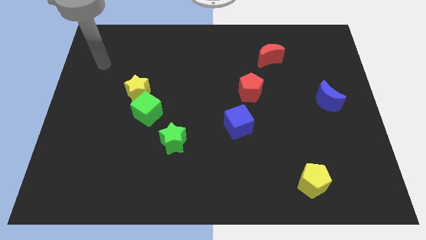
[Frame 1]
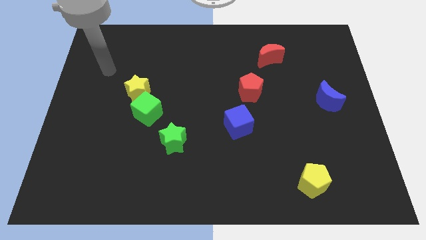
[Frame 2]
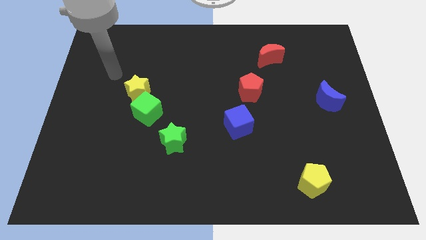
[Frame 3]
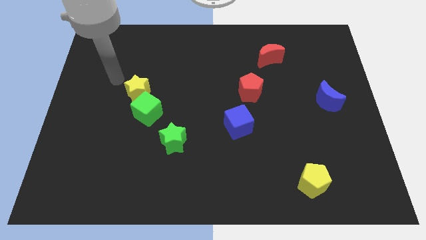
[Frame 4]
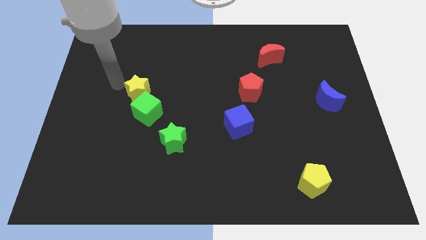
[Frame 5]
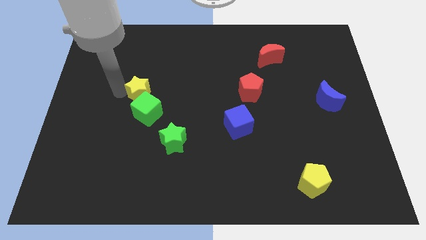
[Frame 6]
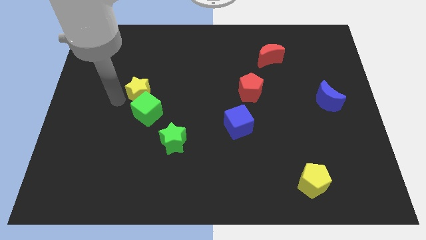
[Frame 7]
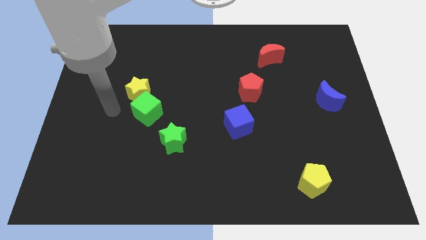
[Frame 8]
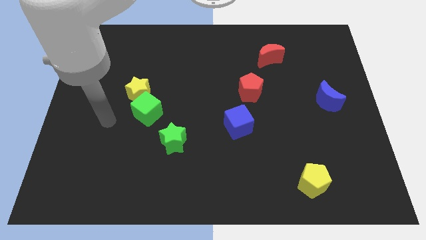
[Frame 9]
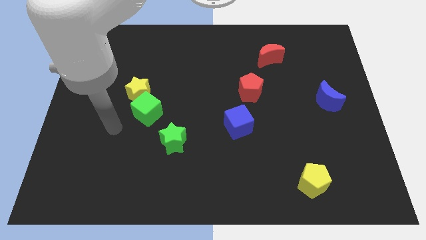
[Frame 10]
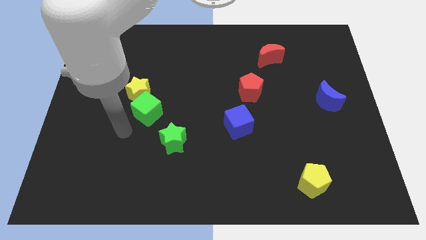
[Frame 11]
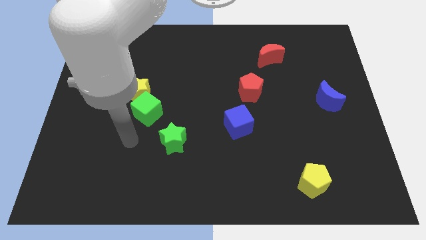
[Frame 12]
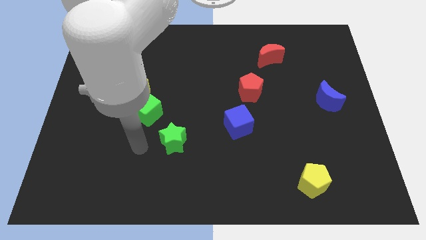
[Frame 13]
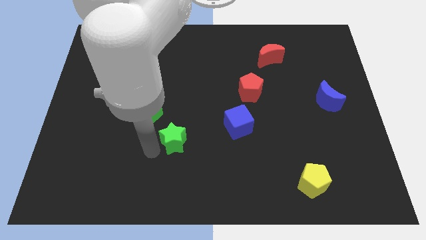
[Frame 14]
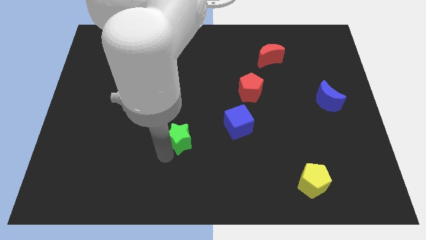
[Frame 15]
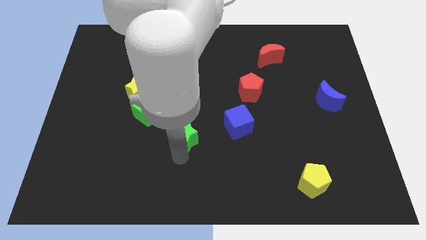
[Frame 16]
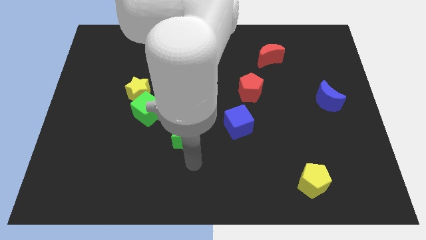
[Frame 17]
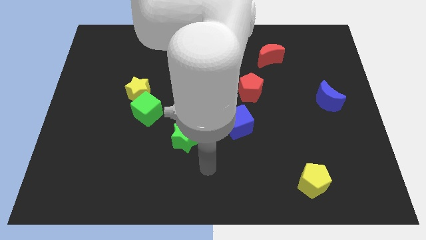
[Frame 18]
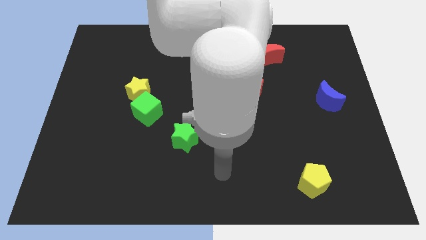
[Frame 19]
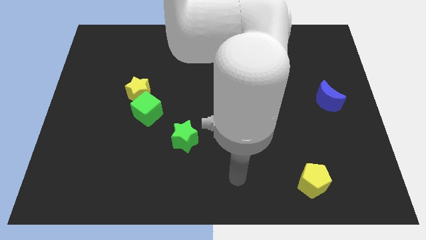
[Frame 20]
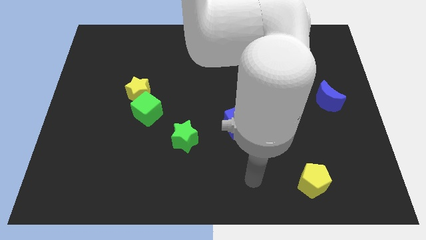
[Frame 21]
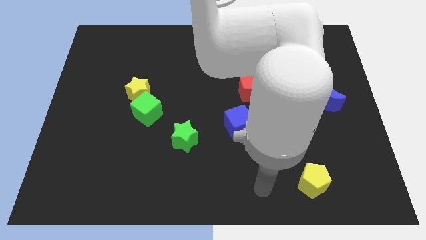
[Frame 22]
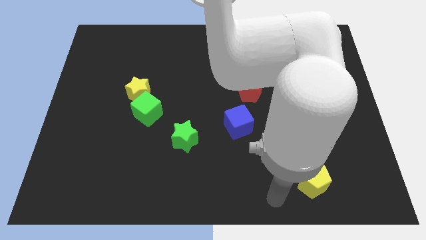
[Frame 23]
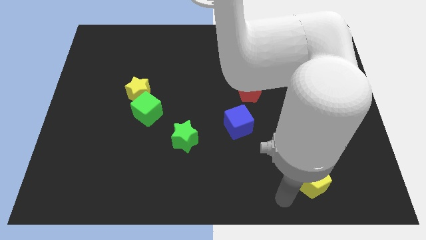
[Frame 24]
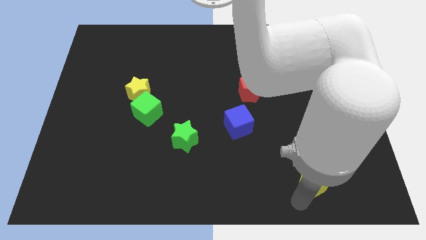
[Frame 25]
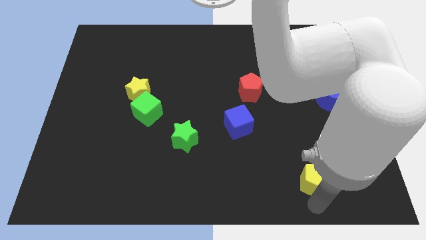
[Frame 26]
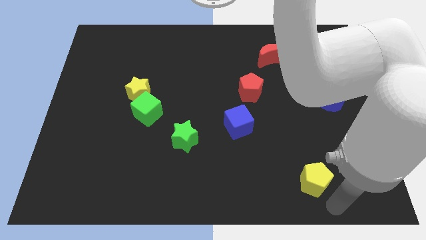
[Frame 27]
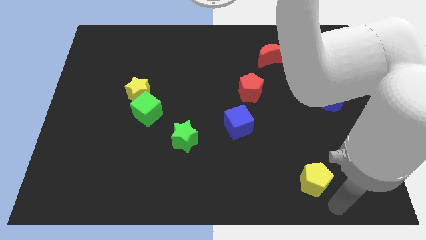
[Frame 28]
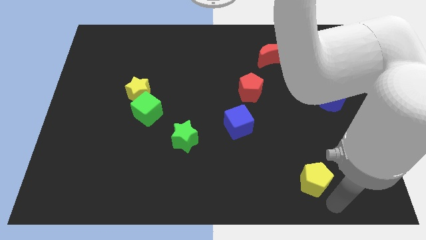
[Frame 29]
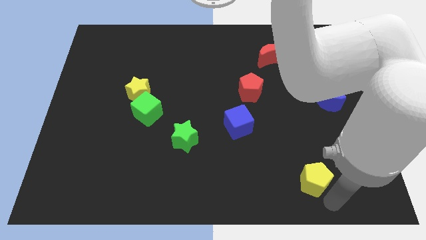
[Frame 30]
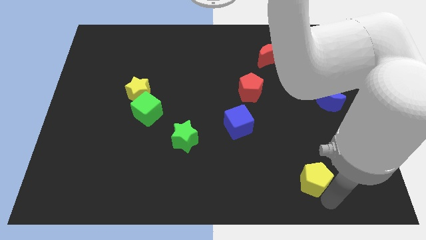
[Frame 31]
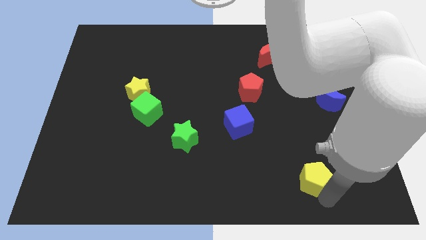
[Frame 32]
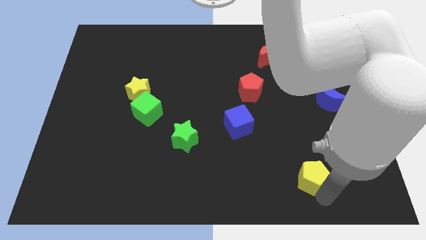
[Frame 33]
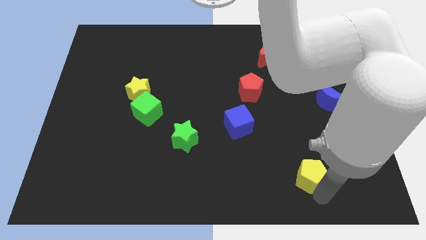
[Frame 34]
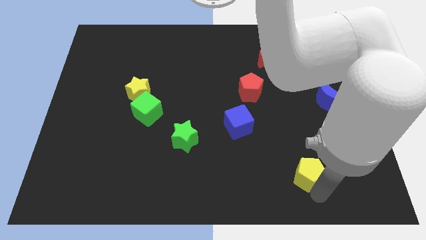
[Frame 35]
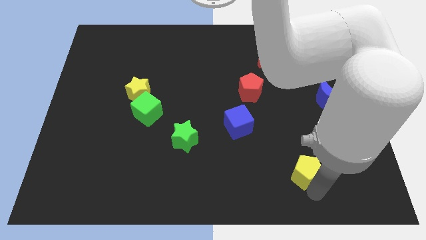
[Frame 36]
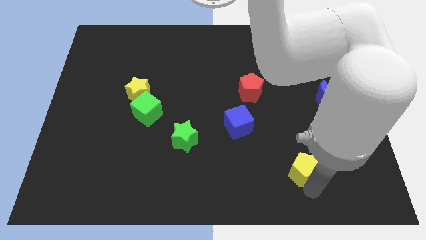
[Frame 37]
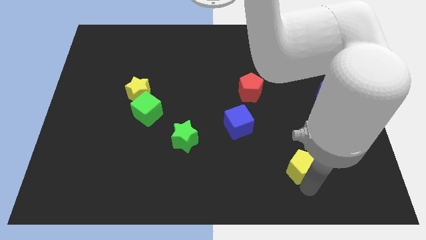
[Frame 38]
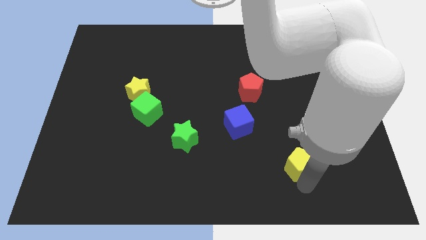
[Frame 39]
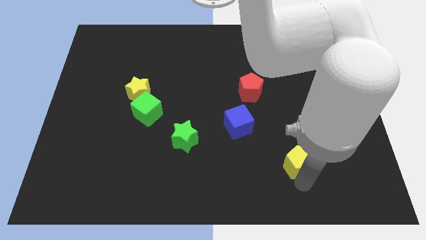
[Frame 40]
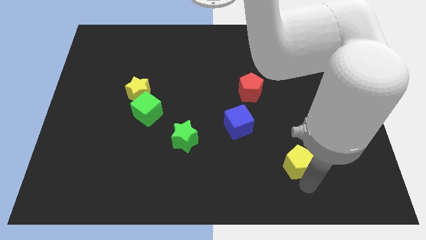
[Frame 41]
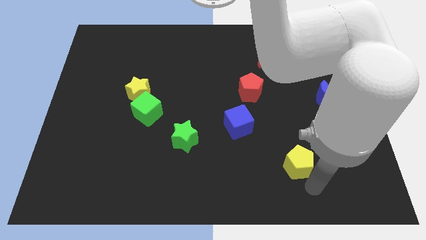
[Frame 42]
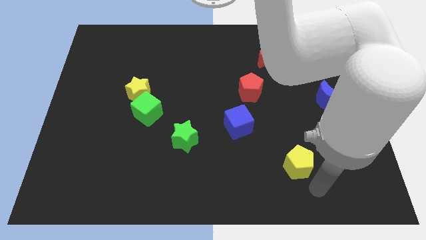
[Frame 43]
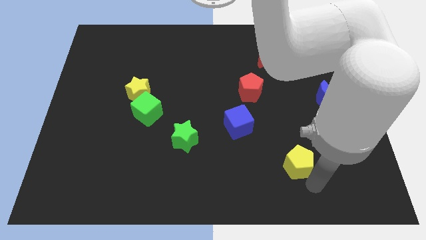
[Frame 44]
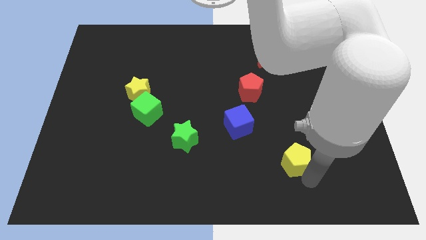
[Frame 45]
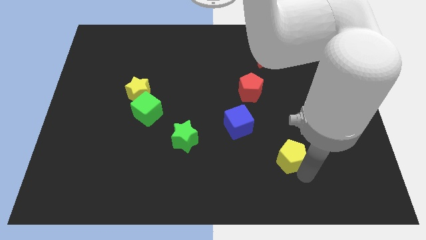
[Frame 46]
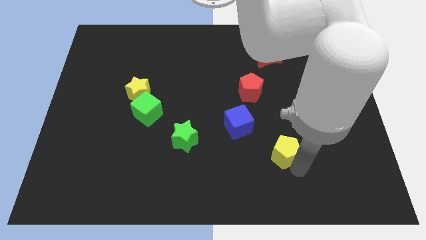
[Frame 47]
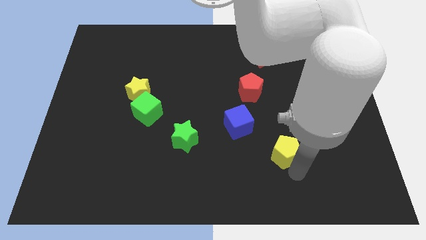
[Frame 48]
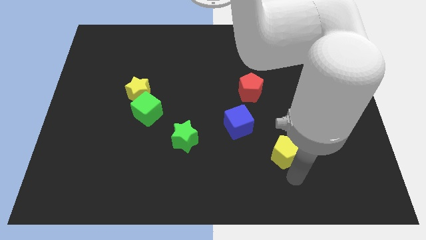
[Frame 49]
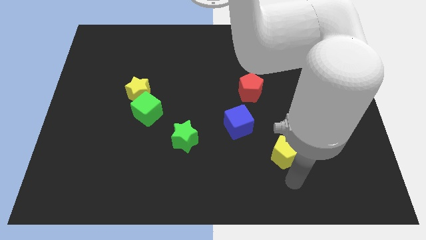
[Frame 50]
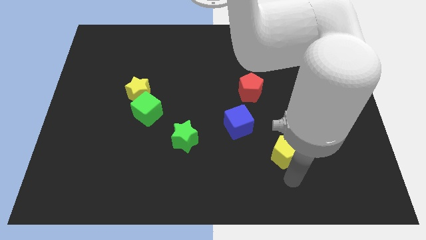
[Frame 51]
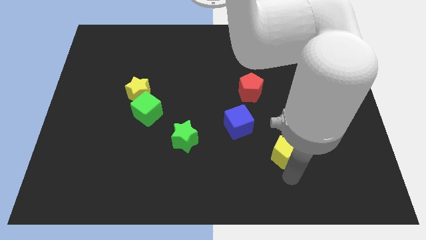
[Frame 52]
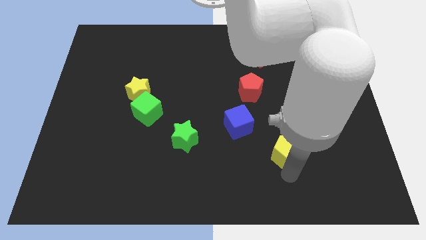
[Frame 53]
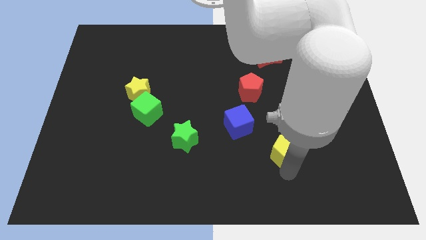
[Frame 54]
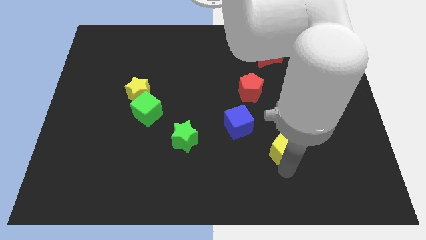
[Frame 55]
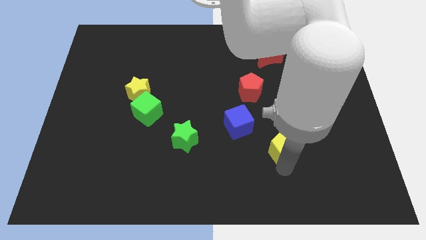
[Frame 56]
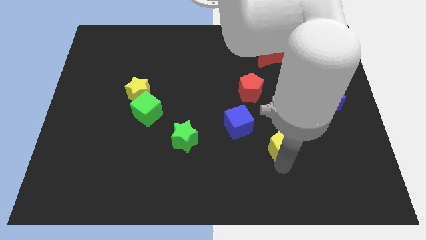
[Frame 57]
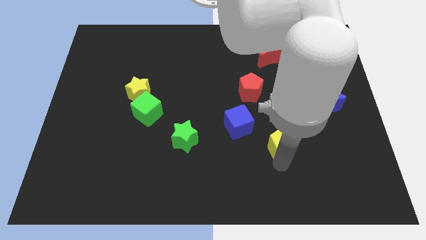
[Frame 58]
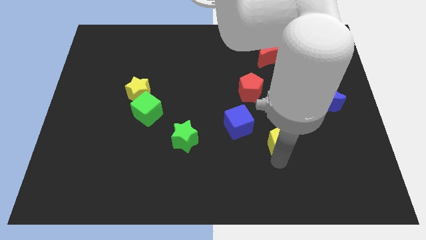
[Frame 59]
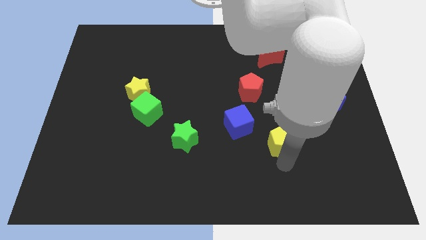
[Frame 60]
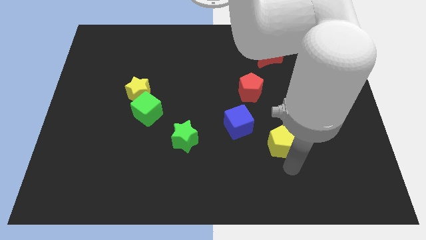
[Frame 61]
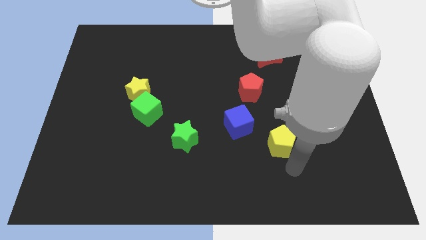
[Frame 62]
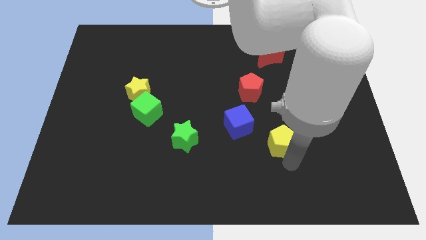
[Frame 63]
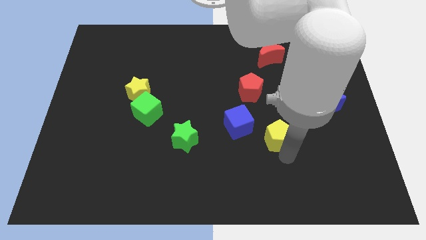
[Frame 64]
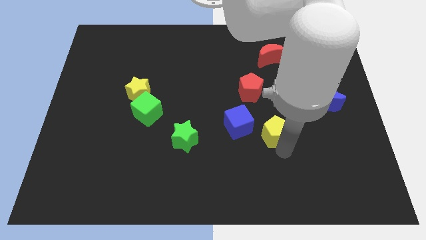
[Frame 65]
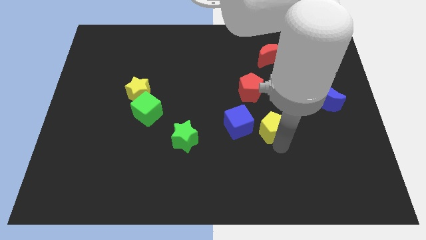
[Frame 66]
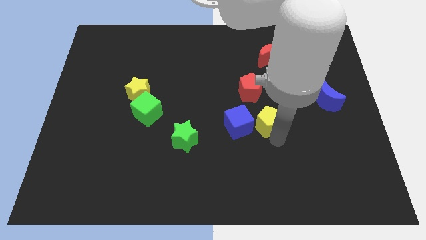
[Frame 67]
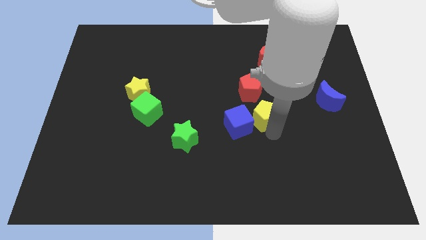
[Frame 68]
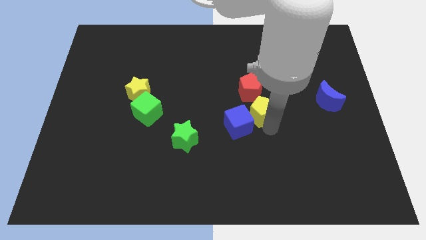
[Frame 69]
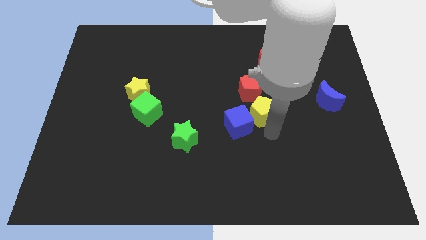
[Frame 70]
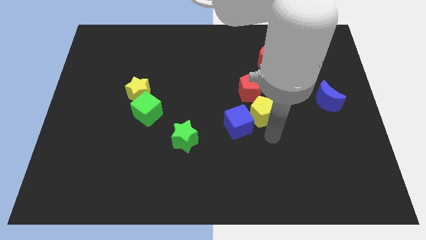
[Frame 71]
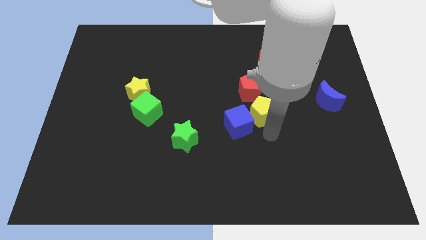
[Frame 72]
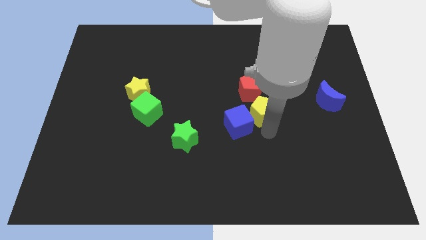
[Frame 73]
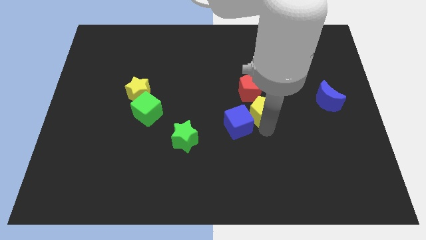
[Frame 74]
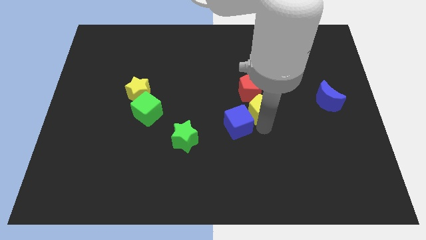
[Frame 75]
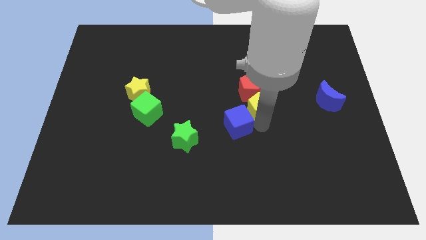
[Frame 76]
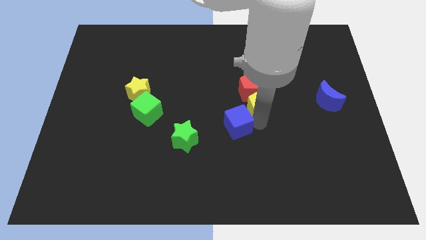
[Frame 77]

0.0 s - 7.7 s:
push the yellow pentagon towards the red pentagon
